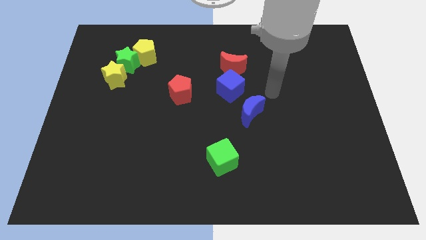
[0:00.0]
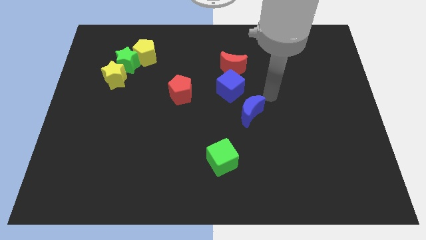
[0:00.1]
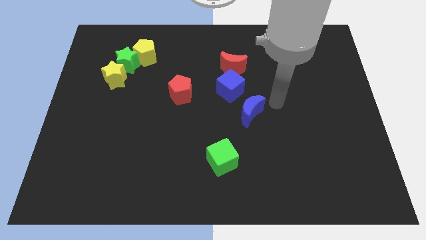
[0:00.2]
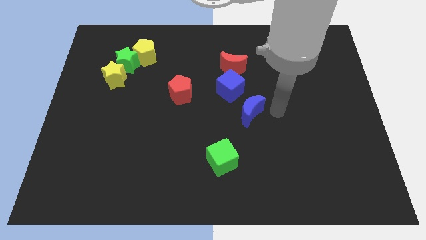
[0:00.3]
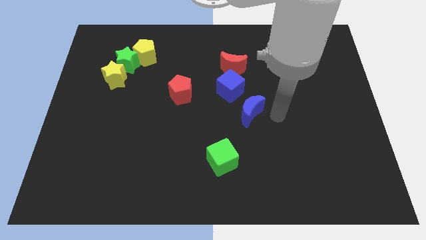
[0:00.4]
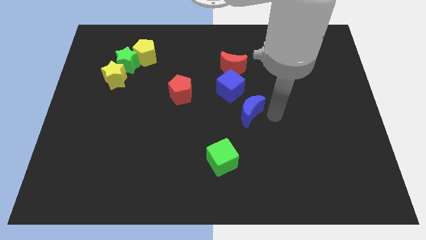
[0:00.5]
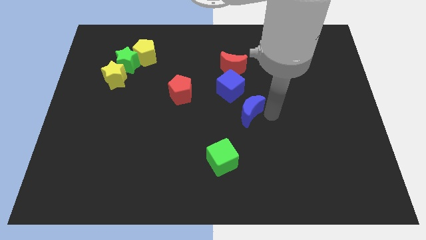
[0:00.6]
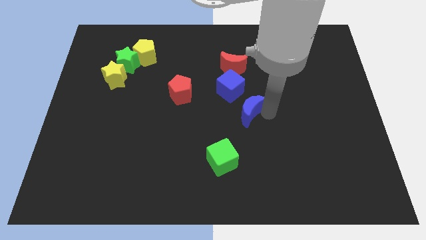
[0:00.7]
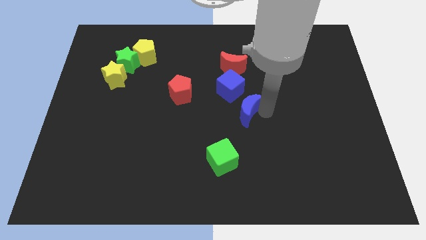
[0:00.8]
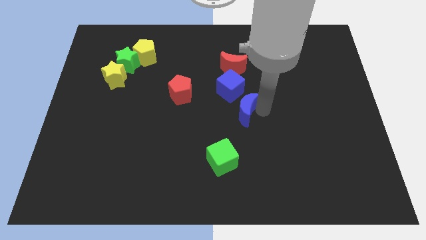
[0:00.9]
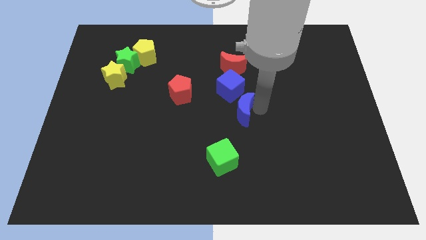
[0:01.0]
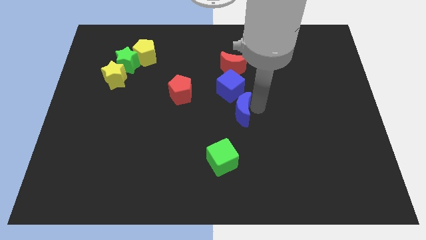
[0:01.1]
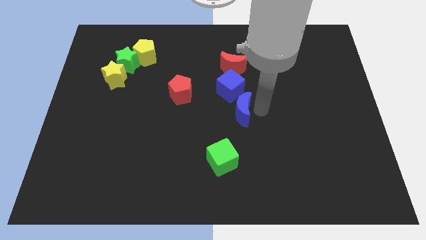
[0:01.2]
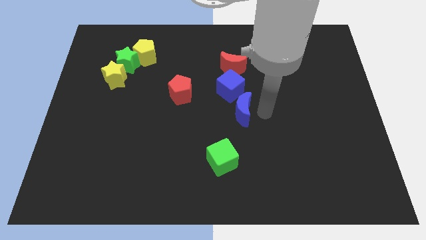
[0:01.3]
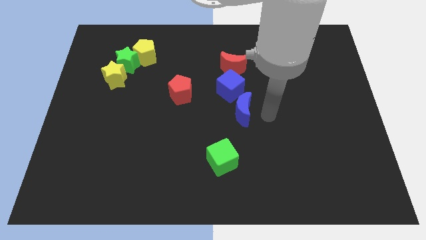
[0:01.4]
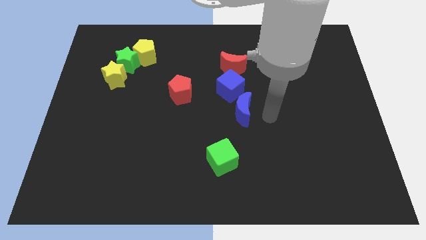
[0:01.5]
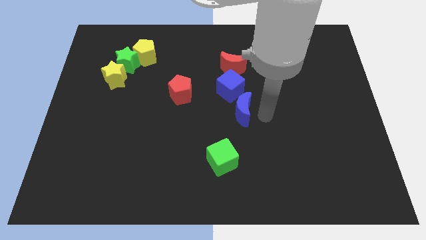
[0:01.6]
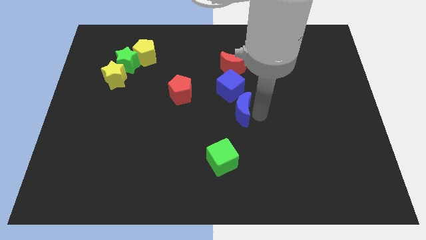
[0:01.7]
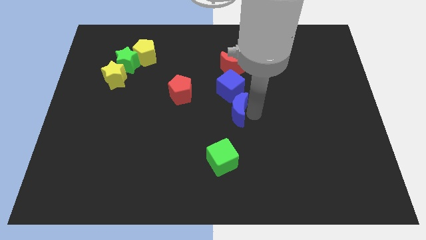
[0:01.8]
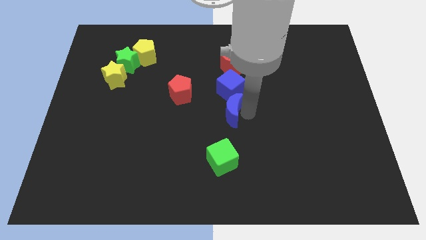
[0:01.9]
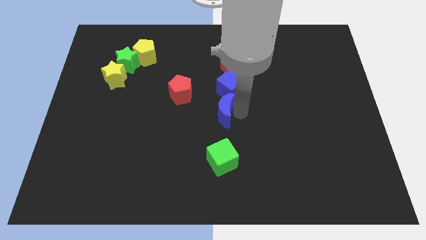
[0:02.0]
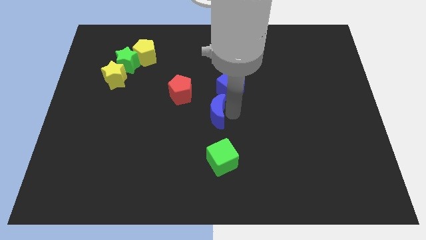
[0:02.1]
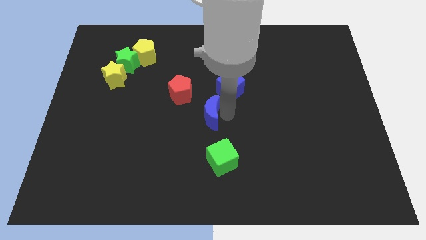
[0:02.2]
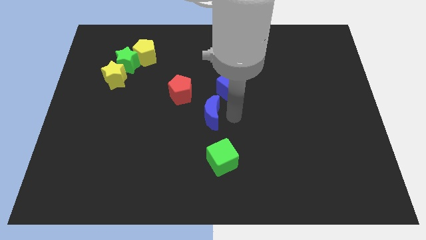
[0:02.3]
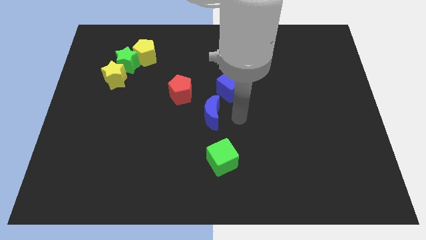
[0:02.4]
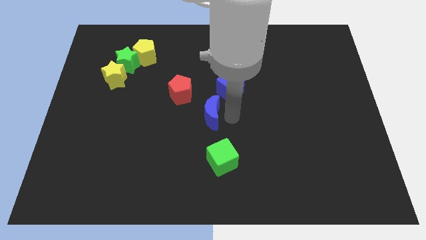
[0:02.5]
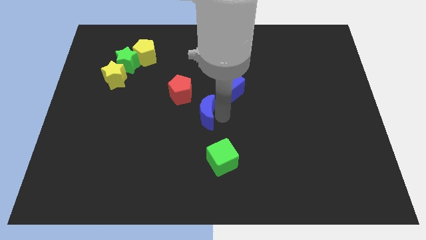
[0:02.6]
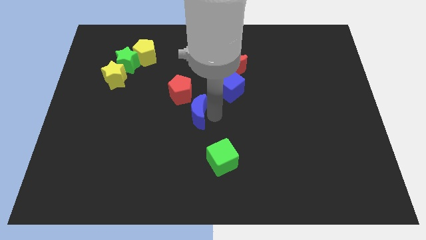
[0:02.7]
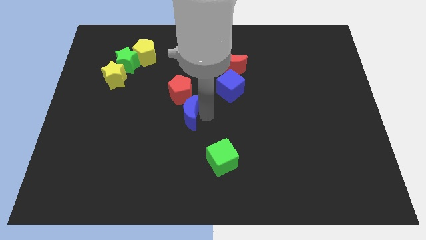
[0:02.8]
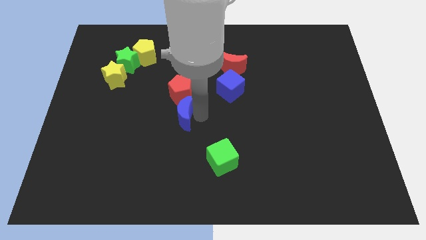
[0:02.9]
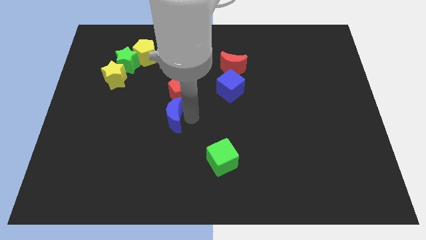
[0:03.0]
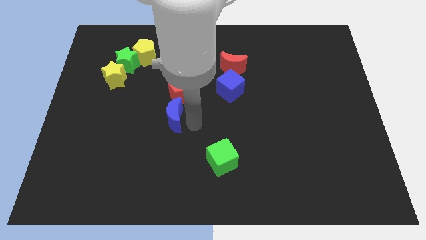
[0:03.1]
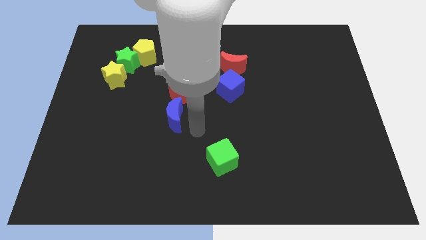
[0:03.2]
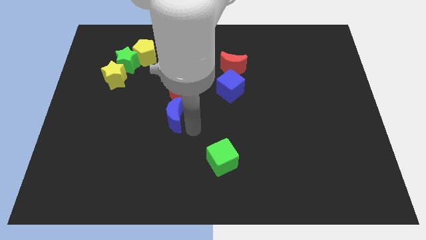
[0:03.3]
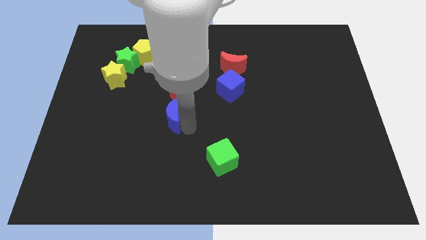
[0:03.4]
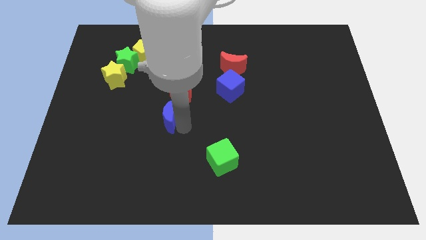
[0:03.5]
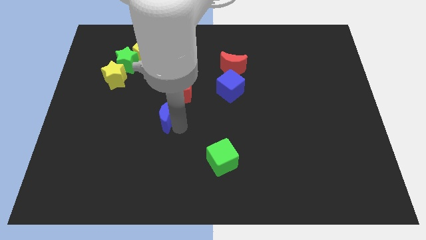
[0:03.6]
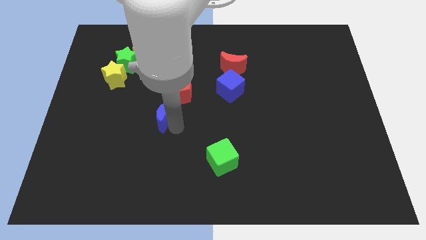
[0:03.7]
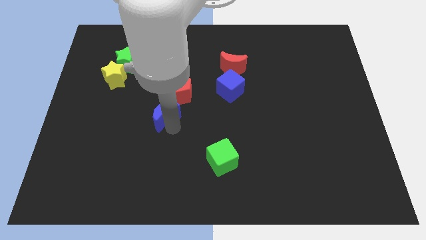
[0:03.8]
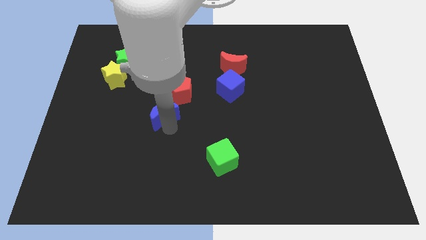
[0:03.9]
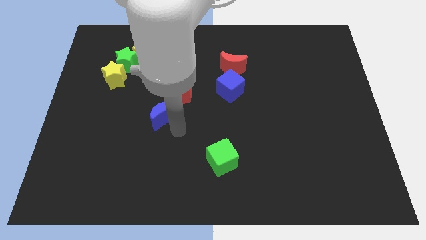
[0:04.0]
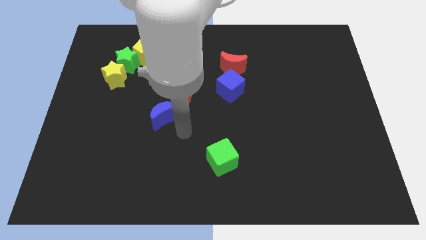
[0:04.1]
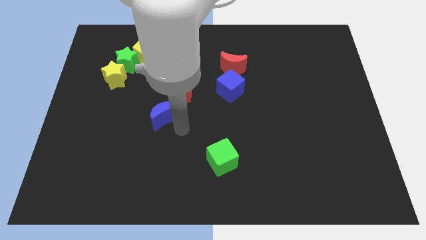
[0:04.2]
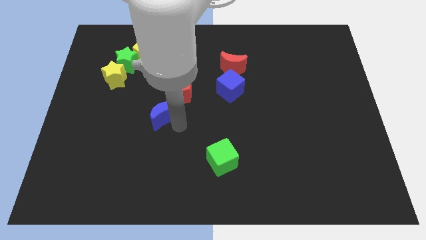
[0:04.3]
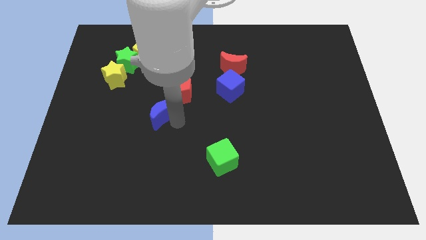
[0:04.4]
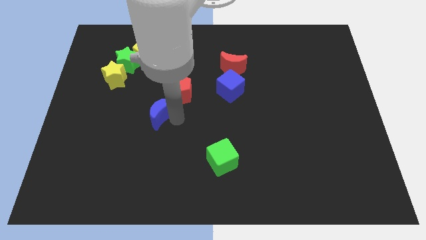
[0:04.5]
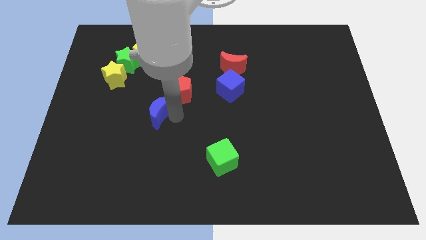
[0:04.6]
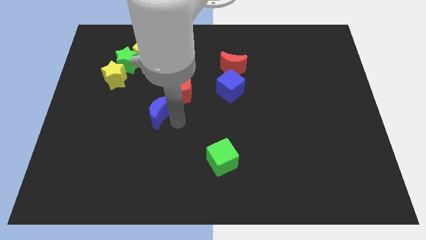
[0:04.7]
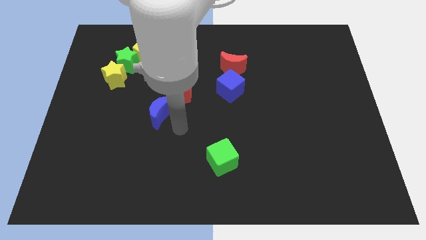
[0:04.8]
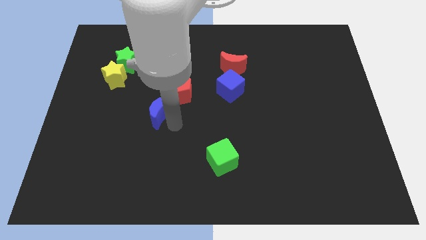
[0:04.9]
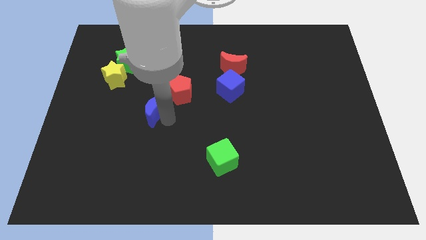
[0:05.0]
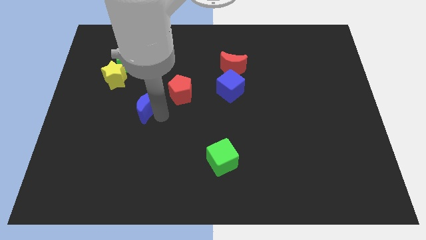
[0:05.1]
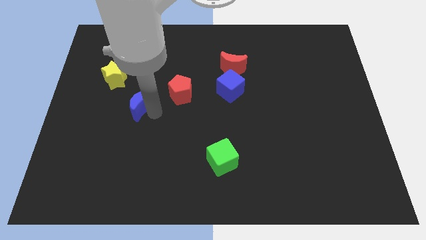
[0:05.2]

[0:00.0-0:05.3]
push the blue moon to the bottom right side of the yellow star
